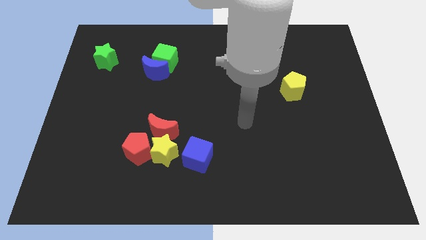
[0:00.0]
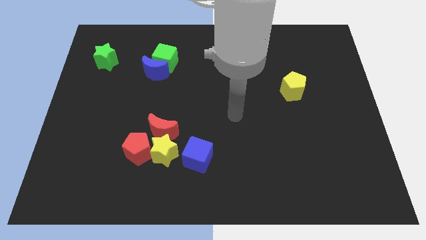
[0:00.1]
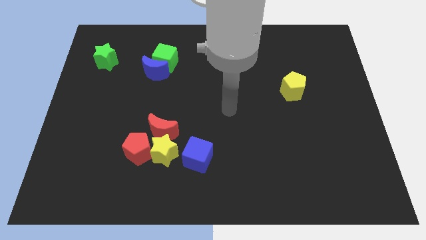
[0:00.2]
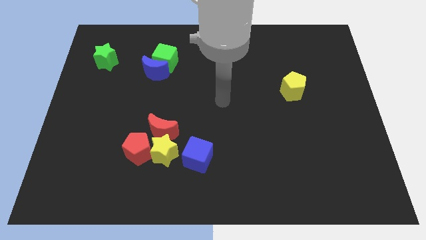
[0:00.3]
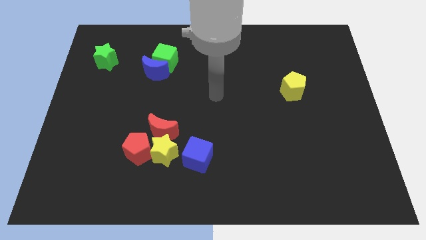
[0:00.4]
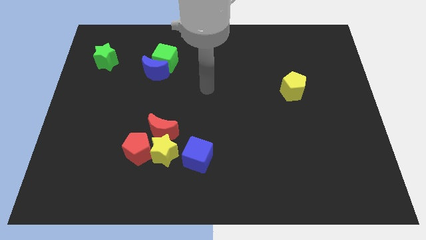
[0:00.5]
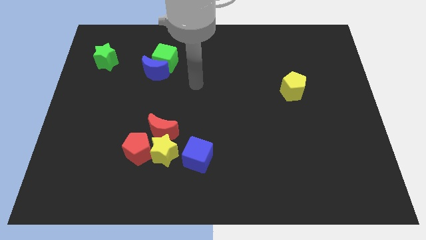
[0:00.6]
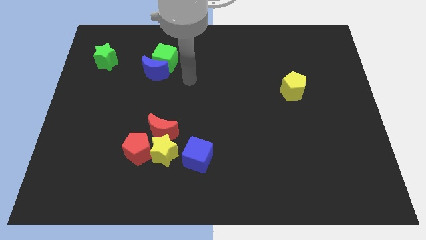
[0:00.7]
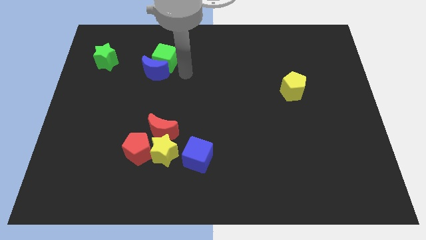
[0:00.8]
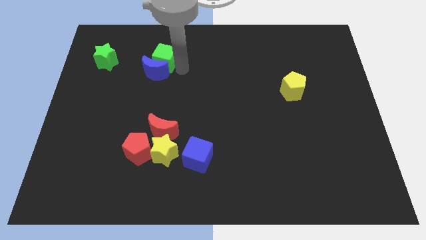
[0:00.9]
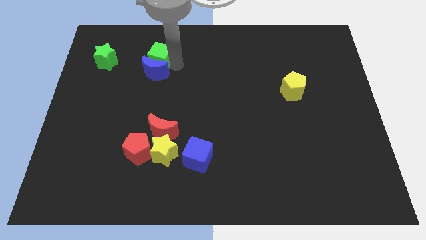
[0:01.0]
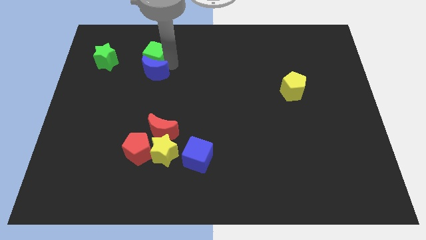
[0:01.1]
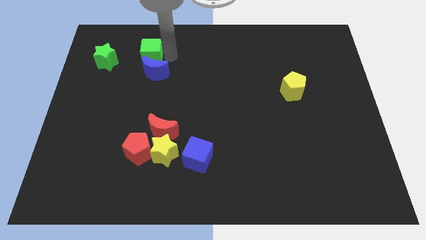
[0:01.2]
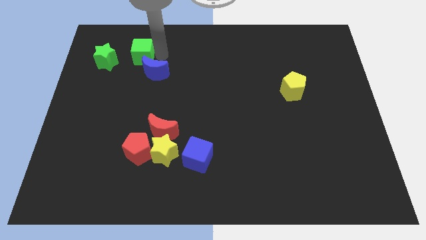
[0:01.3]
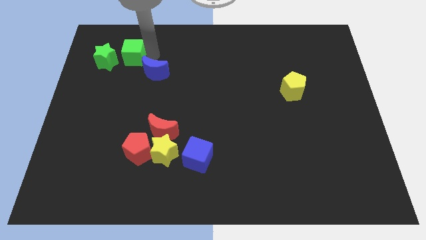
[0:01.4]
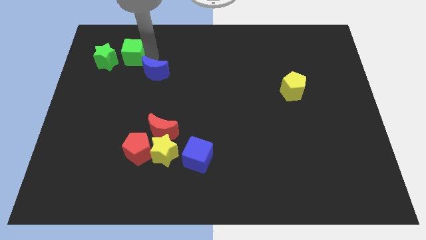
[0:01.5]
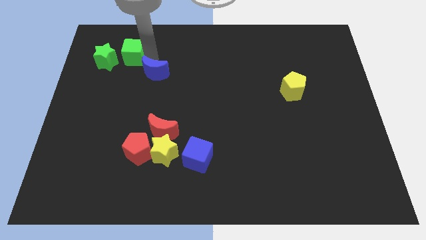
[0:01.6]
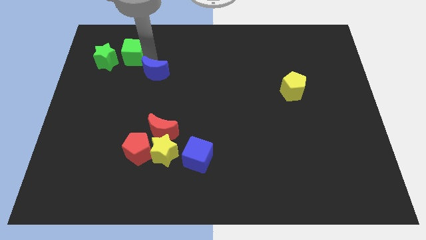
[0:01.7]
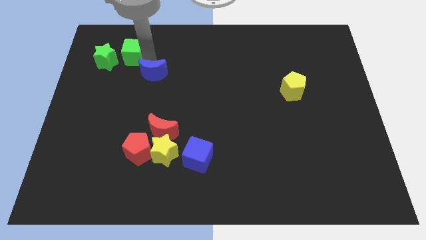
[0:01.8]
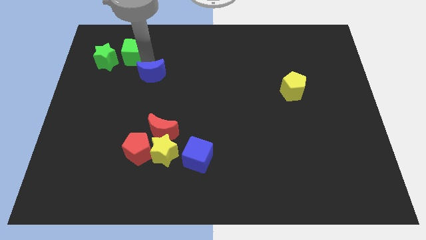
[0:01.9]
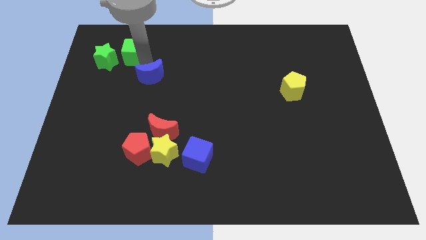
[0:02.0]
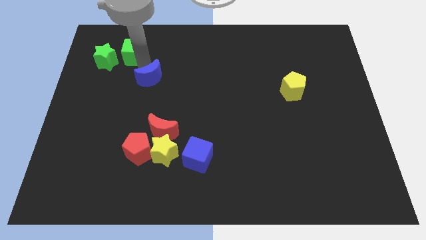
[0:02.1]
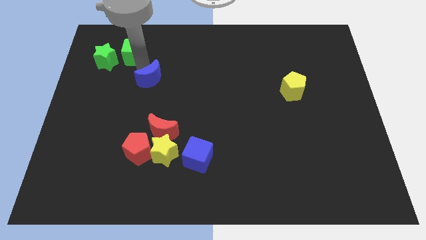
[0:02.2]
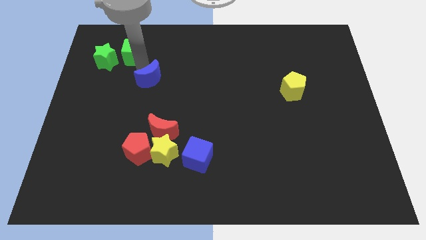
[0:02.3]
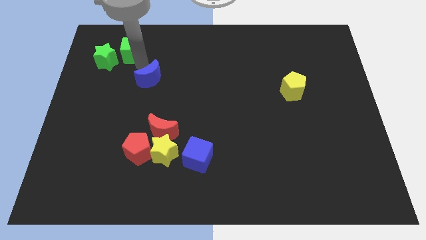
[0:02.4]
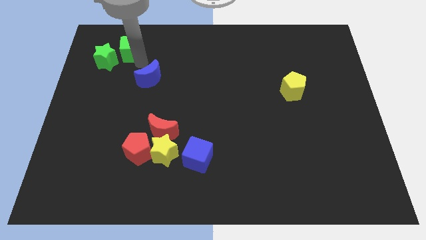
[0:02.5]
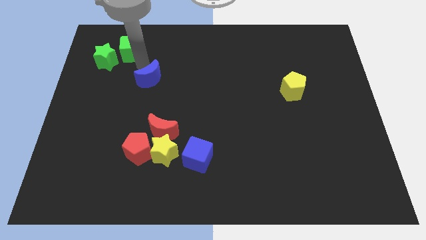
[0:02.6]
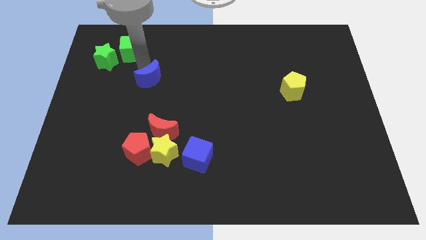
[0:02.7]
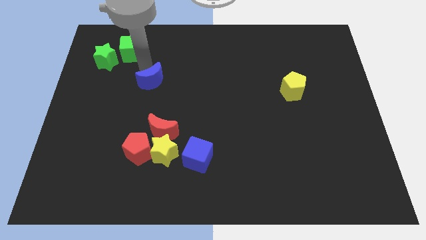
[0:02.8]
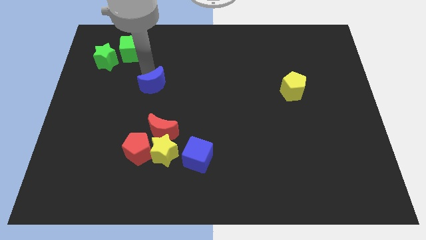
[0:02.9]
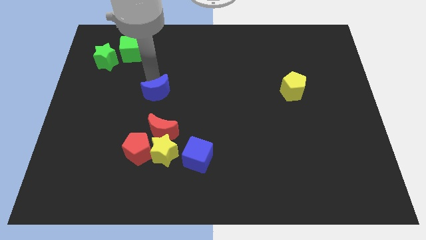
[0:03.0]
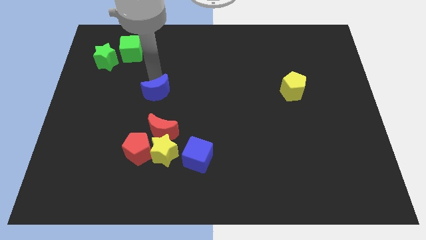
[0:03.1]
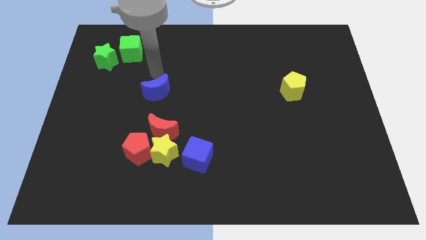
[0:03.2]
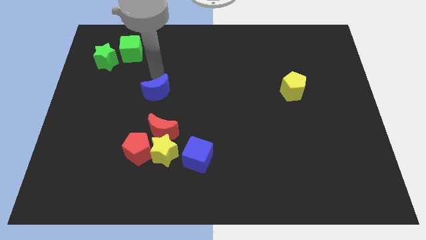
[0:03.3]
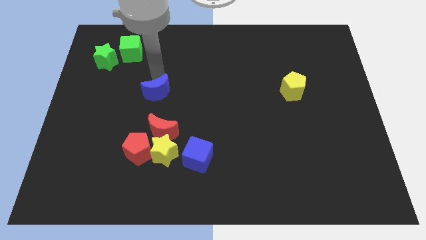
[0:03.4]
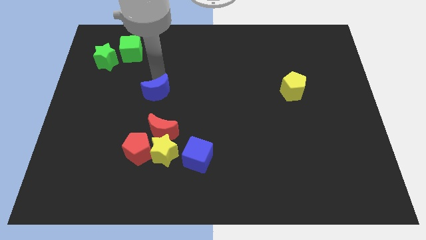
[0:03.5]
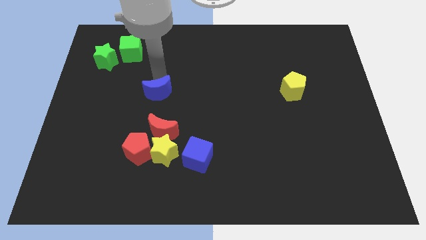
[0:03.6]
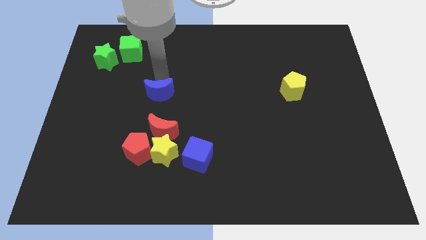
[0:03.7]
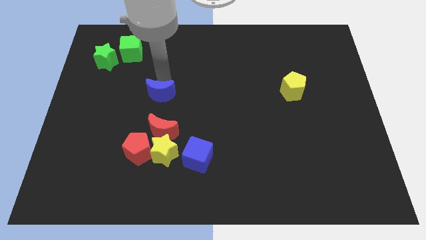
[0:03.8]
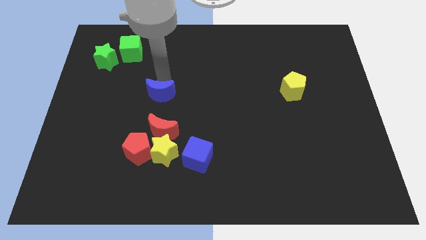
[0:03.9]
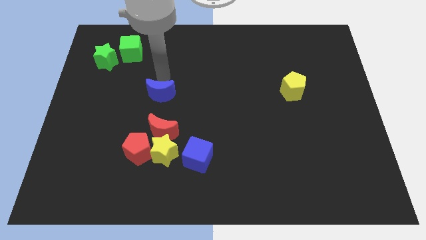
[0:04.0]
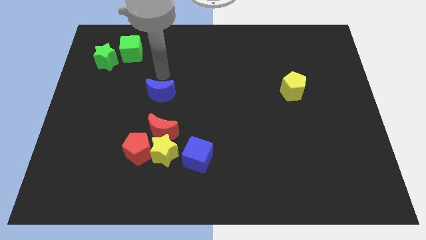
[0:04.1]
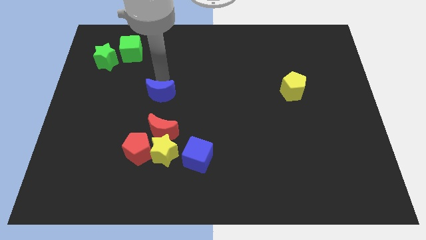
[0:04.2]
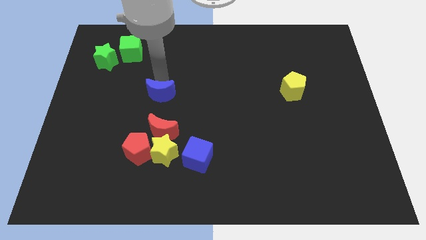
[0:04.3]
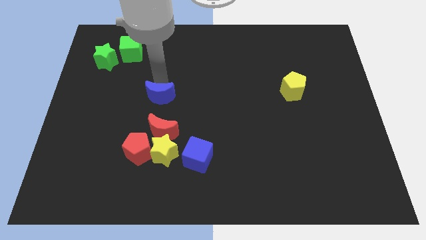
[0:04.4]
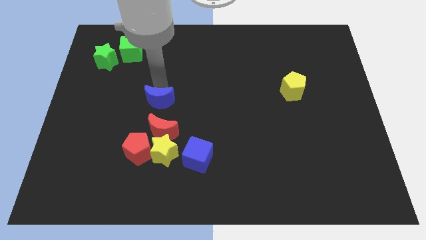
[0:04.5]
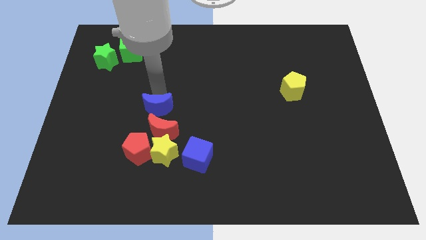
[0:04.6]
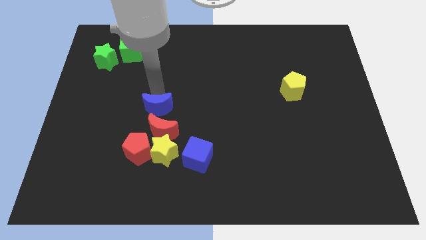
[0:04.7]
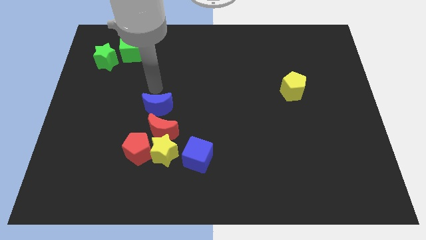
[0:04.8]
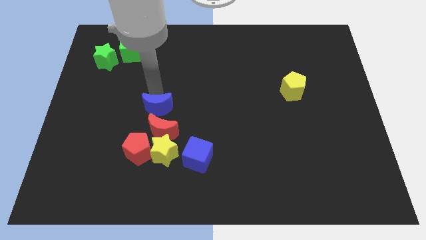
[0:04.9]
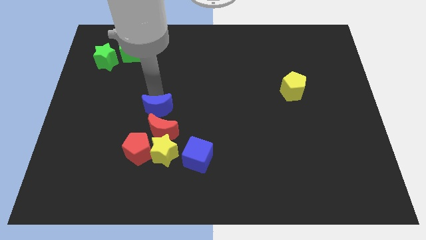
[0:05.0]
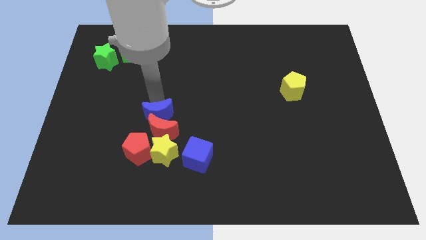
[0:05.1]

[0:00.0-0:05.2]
push the blue moon to the red moon

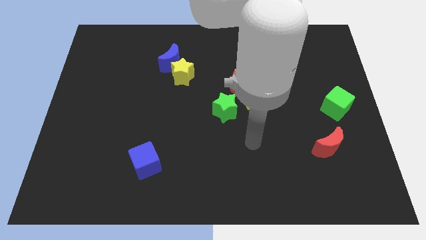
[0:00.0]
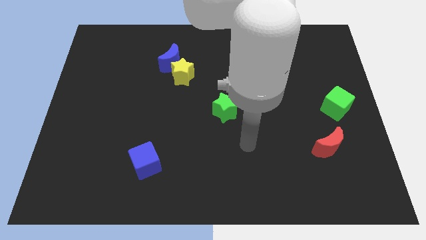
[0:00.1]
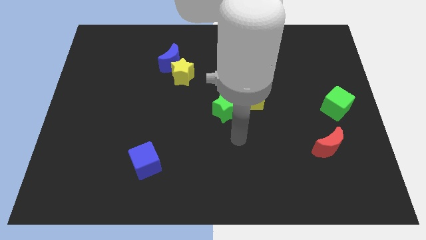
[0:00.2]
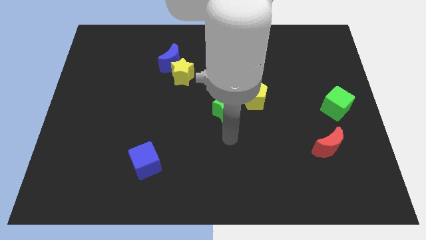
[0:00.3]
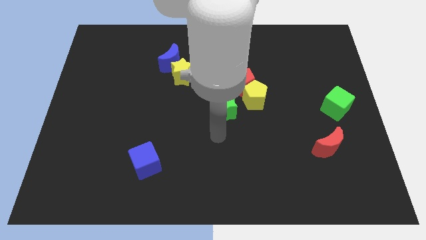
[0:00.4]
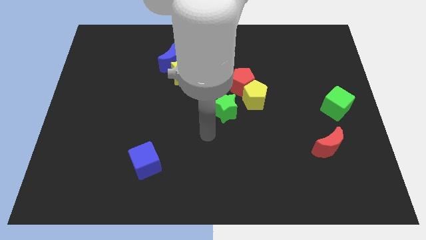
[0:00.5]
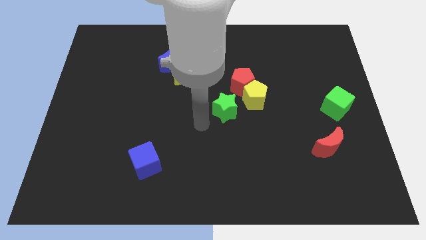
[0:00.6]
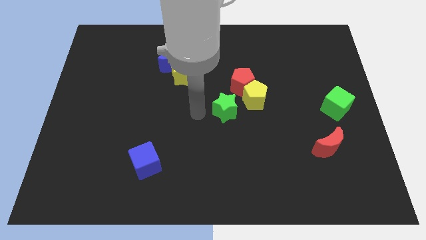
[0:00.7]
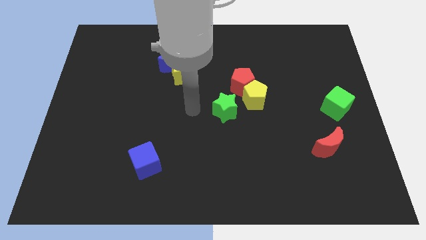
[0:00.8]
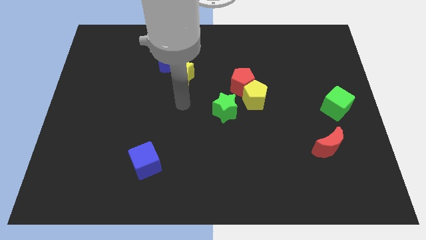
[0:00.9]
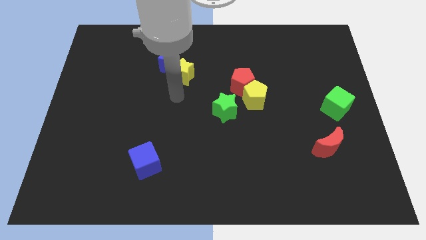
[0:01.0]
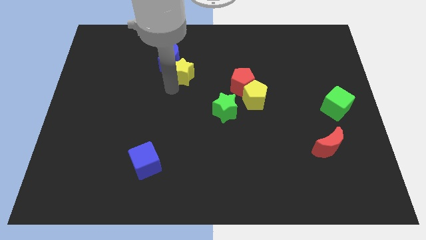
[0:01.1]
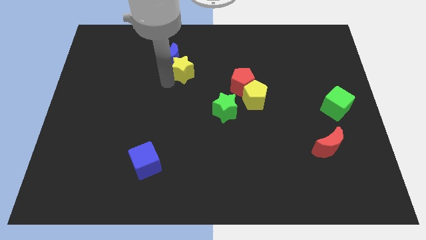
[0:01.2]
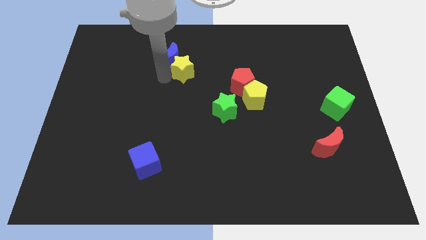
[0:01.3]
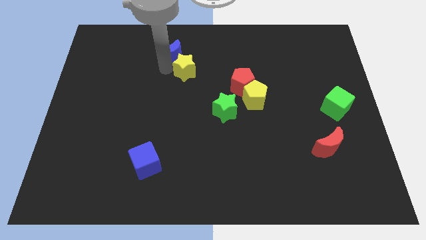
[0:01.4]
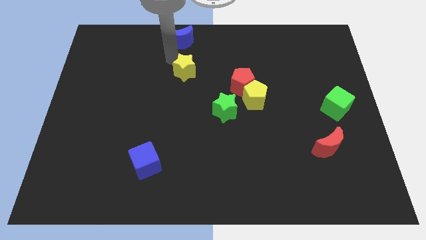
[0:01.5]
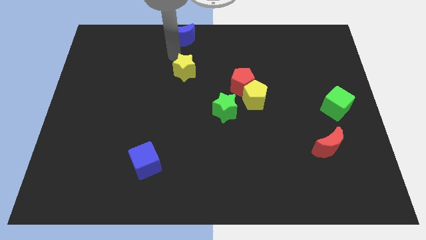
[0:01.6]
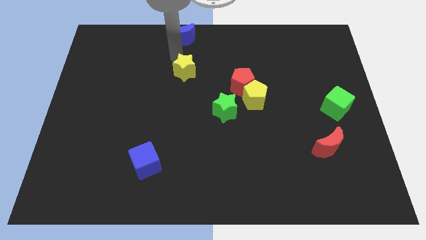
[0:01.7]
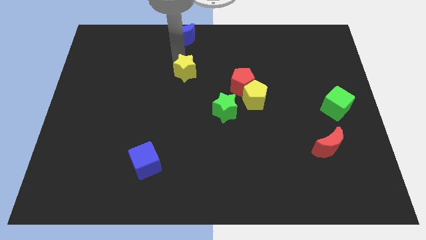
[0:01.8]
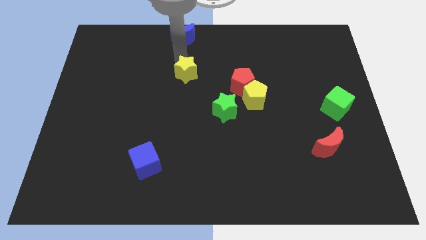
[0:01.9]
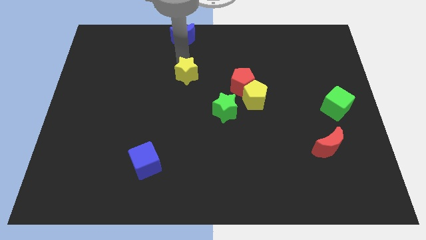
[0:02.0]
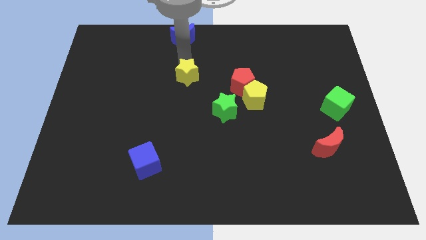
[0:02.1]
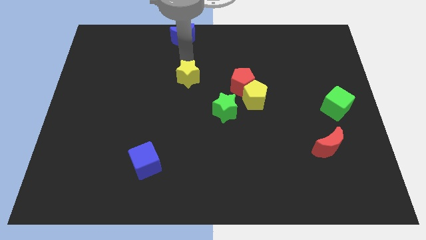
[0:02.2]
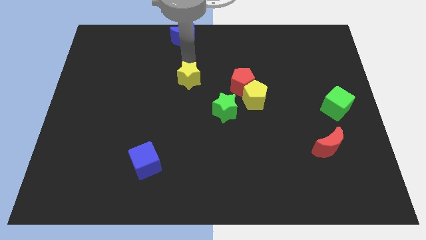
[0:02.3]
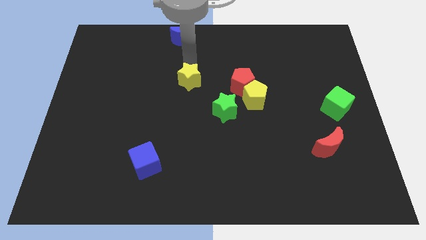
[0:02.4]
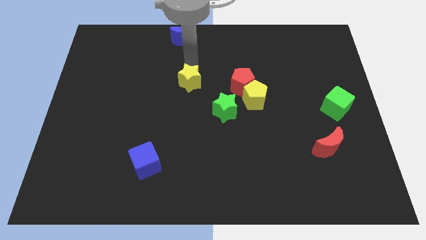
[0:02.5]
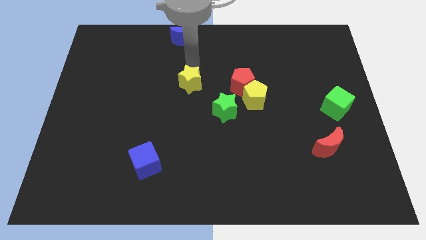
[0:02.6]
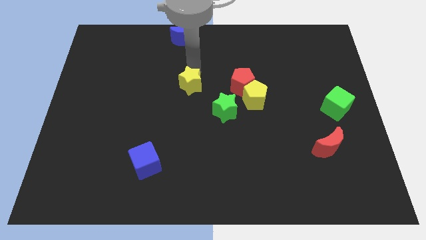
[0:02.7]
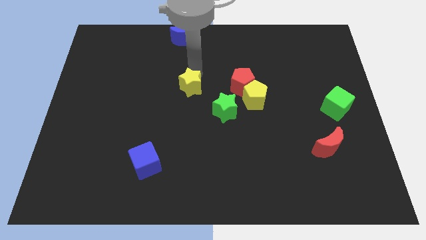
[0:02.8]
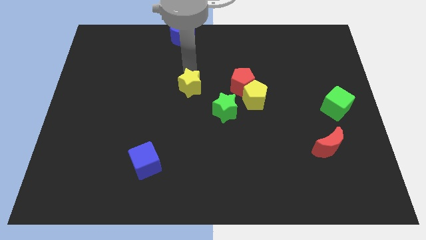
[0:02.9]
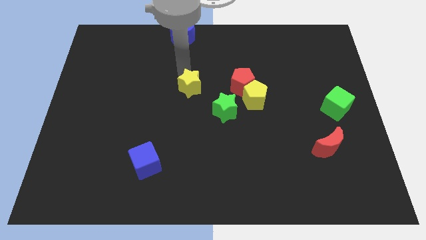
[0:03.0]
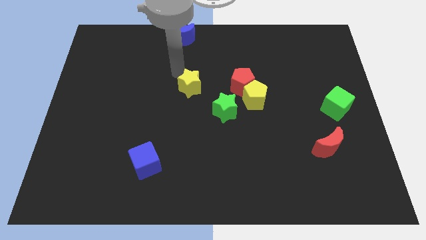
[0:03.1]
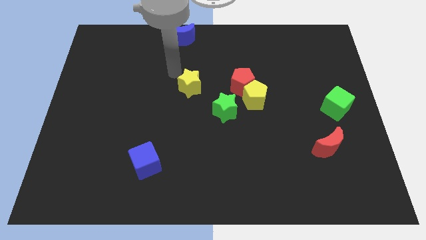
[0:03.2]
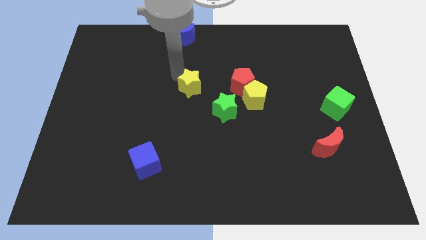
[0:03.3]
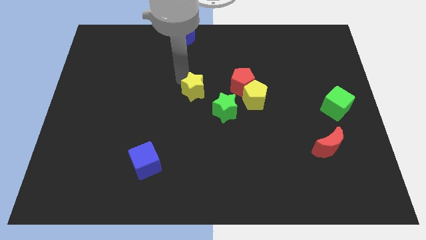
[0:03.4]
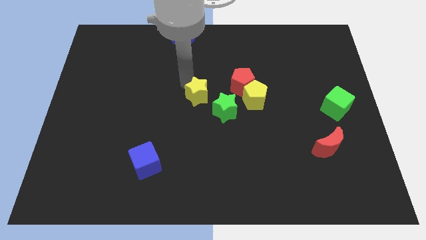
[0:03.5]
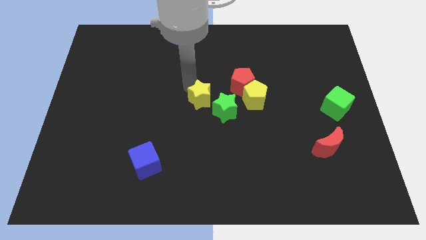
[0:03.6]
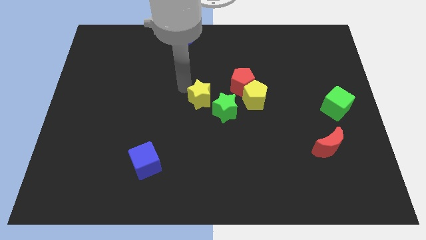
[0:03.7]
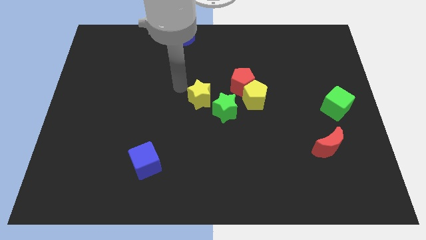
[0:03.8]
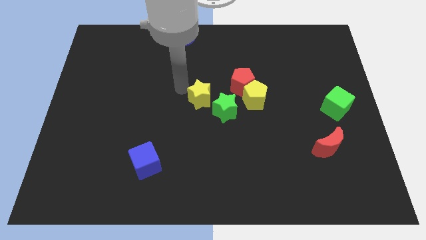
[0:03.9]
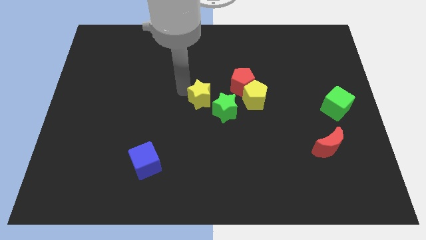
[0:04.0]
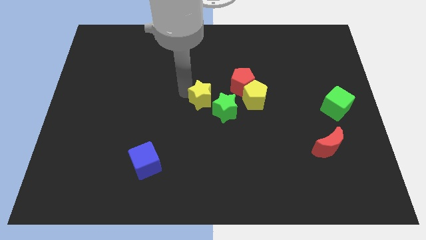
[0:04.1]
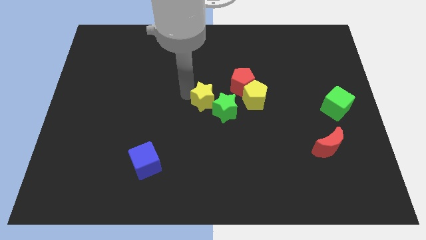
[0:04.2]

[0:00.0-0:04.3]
slide the yellow star next to the green star
